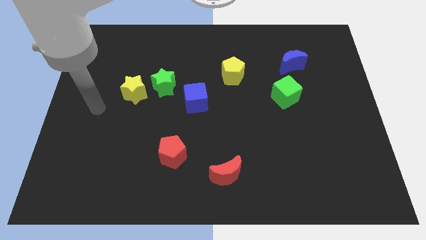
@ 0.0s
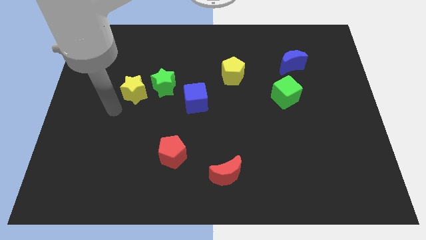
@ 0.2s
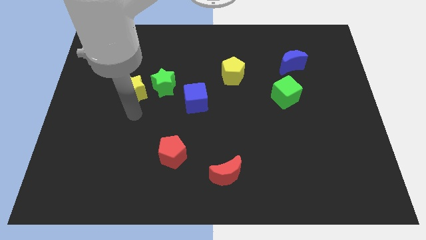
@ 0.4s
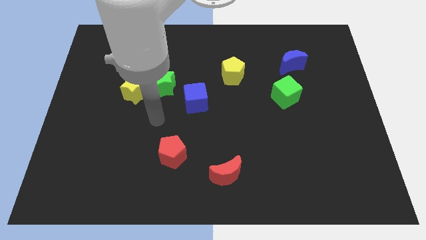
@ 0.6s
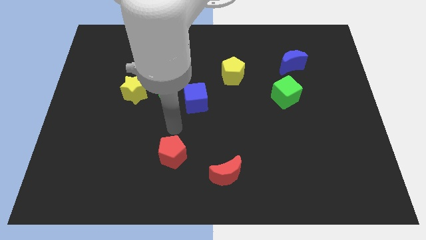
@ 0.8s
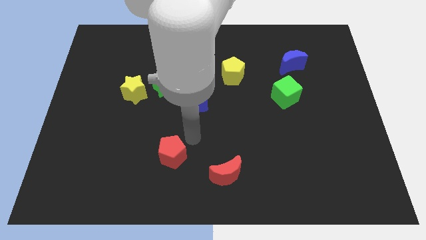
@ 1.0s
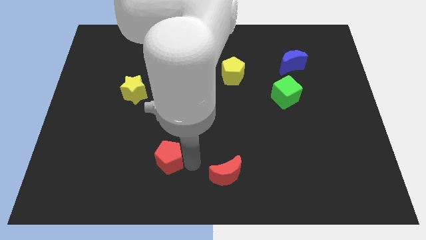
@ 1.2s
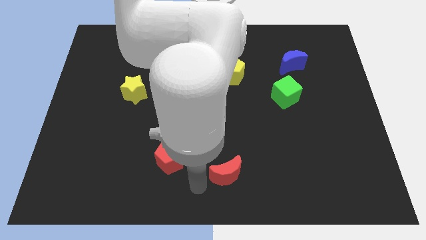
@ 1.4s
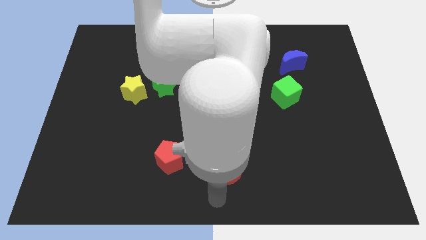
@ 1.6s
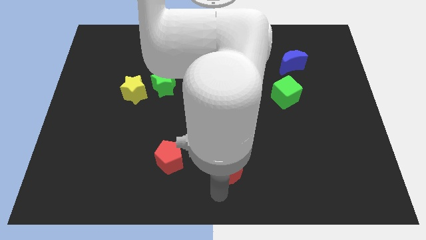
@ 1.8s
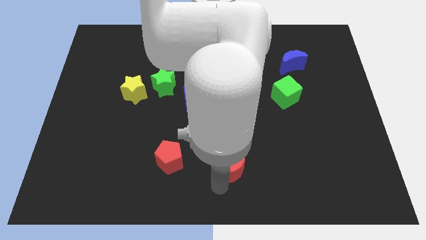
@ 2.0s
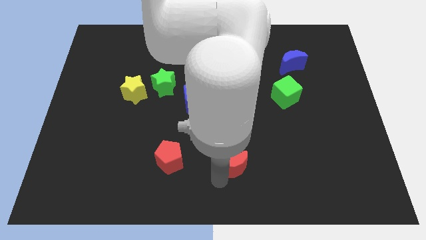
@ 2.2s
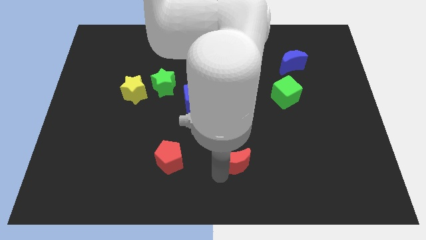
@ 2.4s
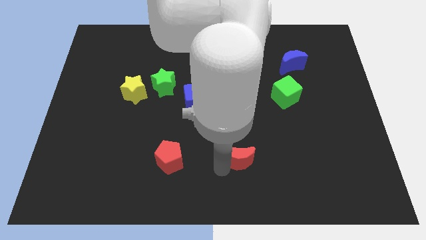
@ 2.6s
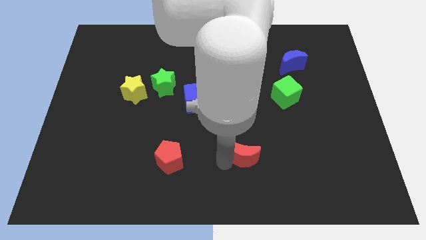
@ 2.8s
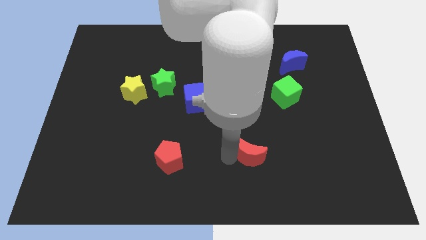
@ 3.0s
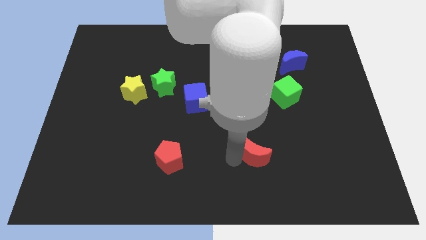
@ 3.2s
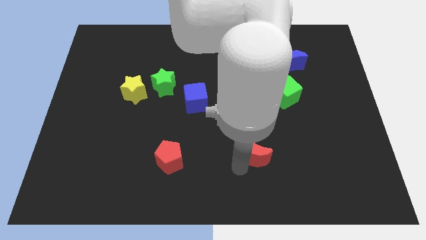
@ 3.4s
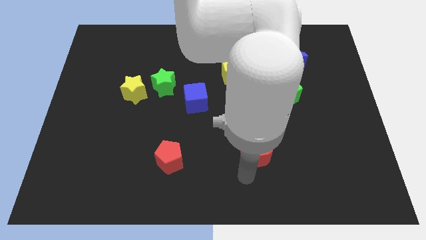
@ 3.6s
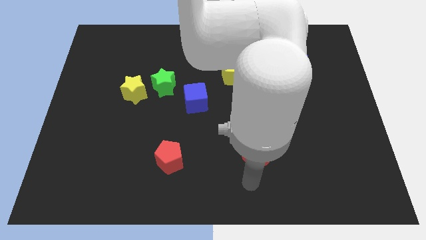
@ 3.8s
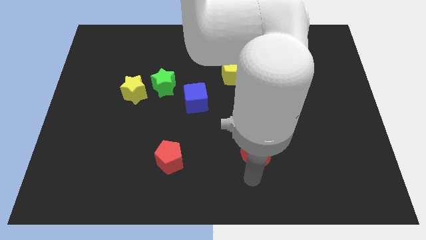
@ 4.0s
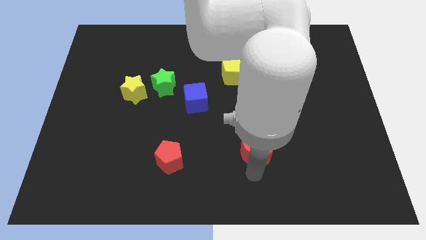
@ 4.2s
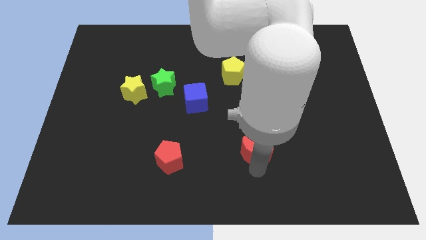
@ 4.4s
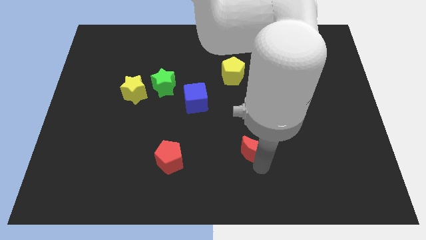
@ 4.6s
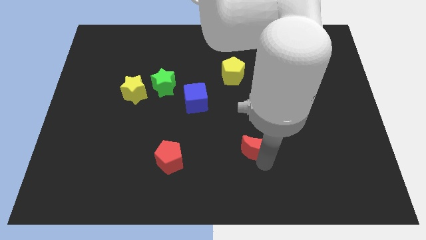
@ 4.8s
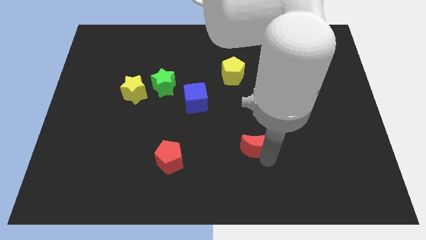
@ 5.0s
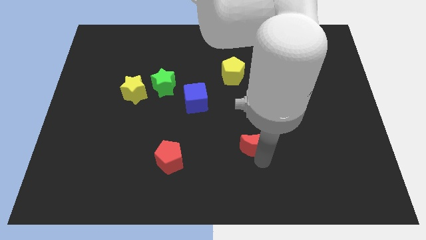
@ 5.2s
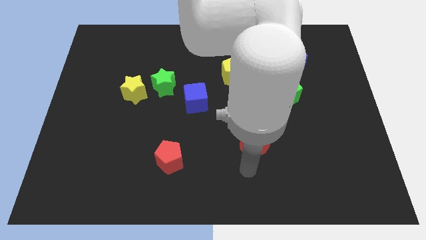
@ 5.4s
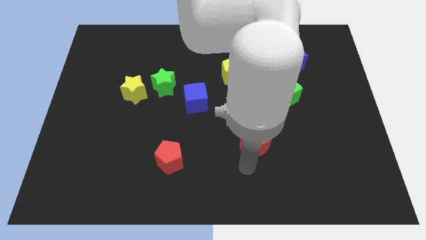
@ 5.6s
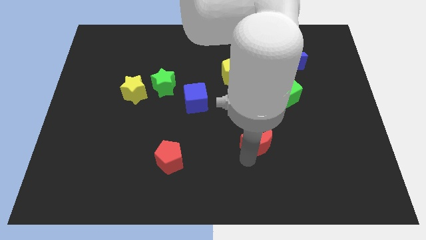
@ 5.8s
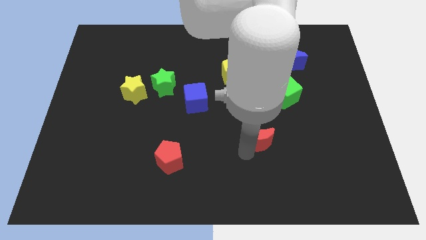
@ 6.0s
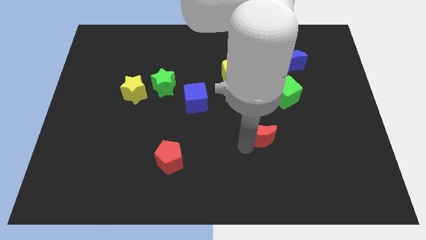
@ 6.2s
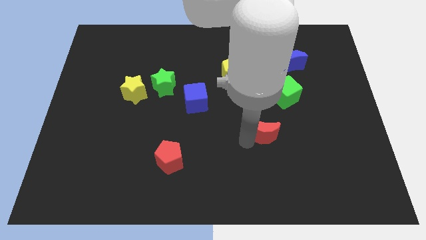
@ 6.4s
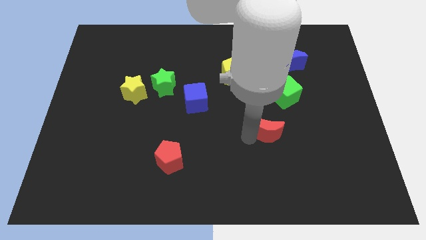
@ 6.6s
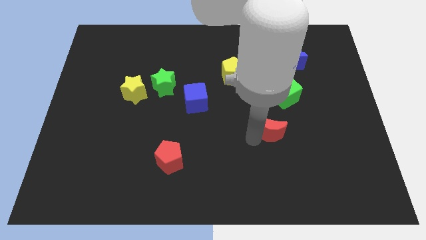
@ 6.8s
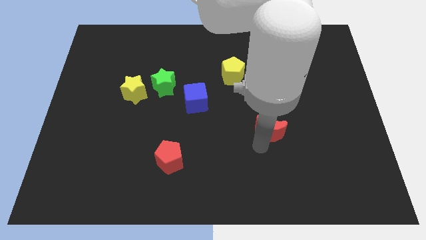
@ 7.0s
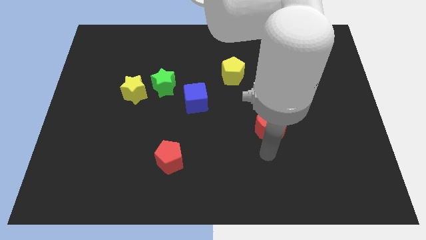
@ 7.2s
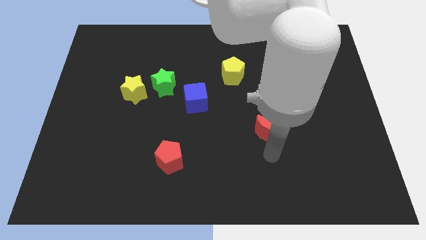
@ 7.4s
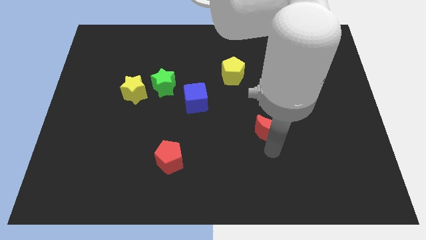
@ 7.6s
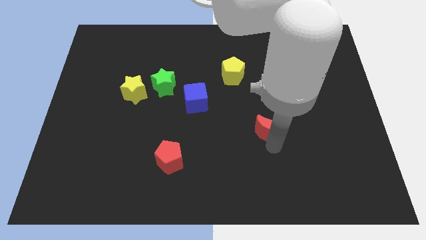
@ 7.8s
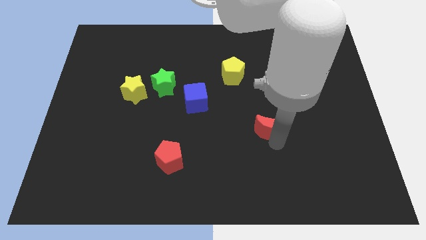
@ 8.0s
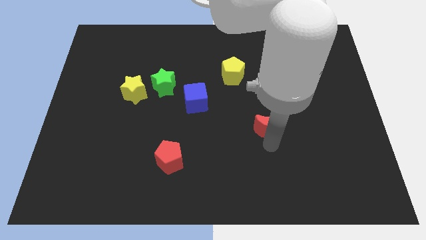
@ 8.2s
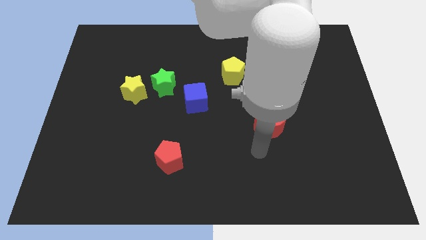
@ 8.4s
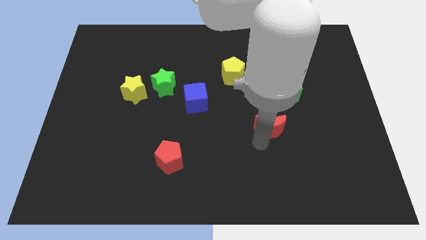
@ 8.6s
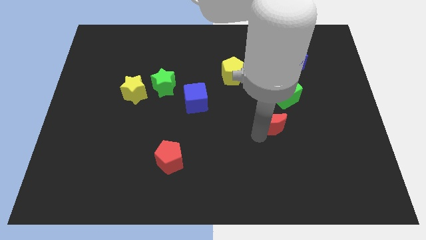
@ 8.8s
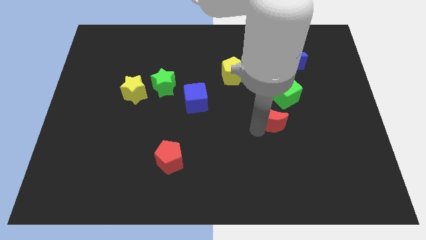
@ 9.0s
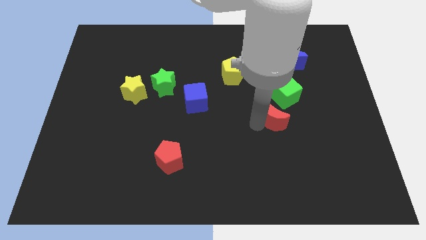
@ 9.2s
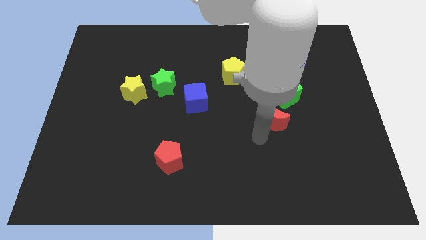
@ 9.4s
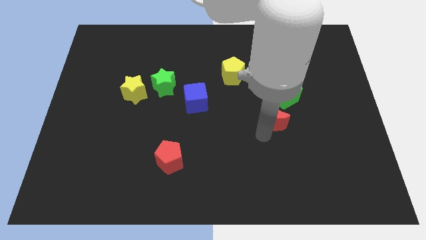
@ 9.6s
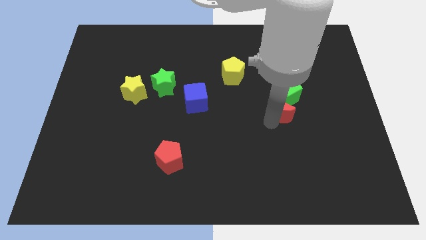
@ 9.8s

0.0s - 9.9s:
put the red moon close to the green cube

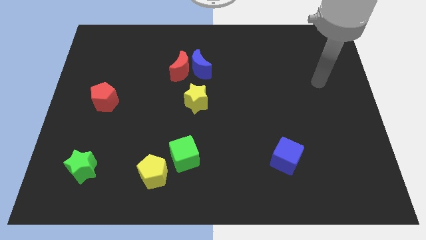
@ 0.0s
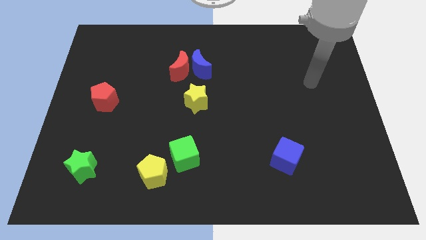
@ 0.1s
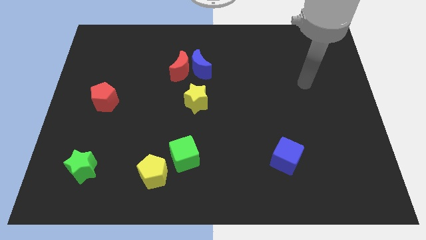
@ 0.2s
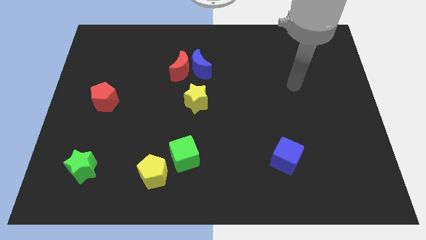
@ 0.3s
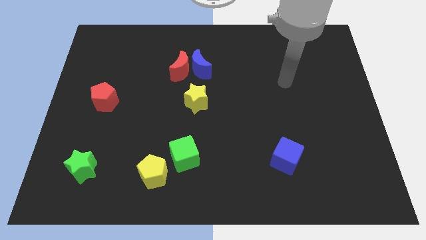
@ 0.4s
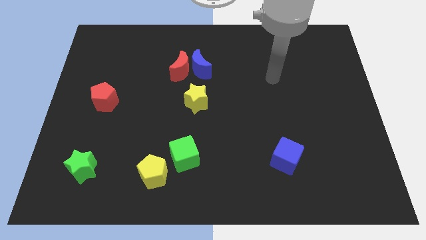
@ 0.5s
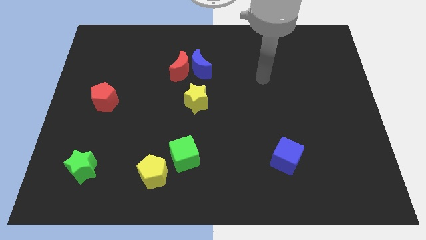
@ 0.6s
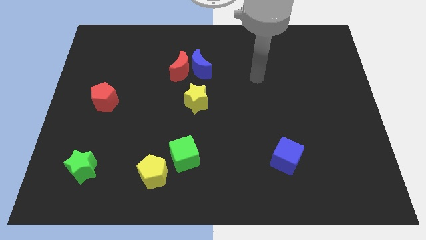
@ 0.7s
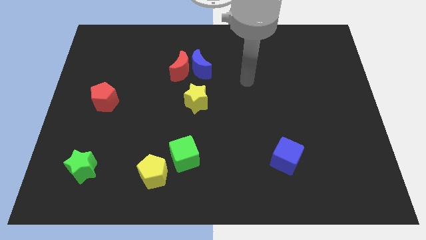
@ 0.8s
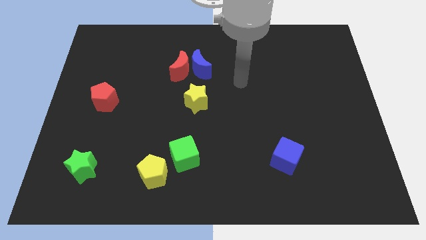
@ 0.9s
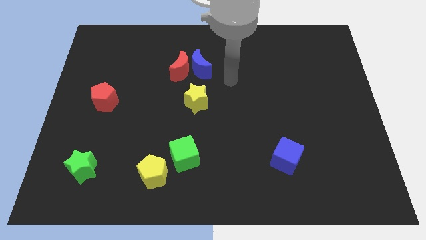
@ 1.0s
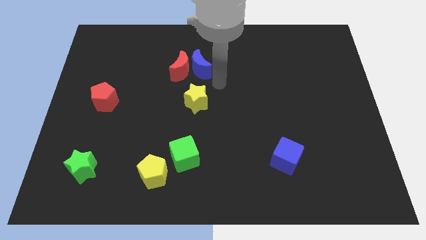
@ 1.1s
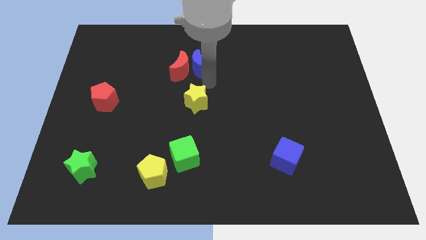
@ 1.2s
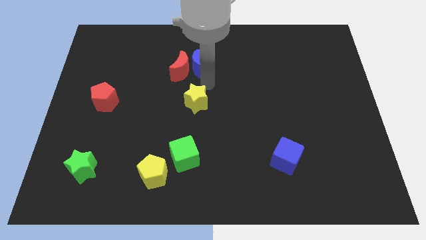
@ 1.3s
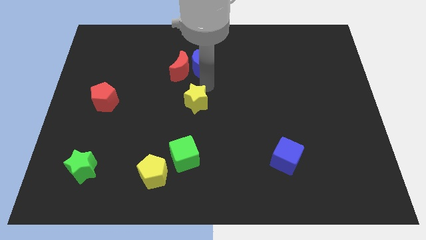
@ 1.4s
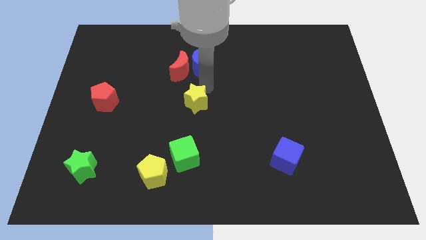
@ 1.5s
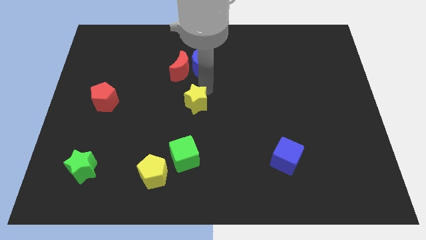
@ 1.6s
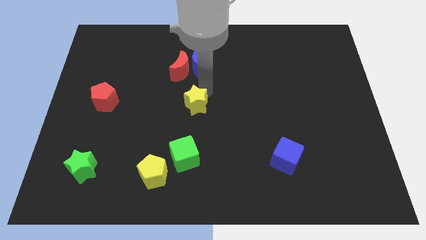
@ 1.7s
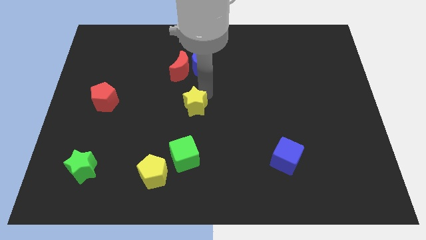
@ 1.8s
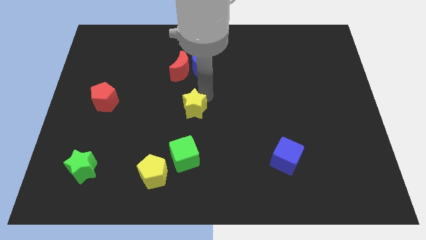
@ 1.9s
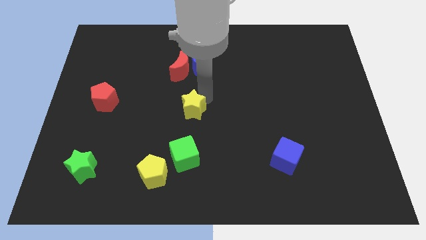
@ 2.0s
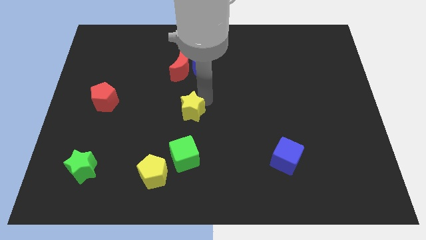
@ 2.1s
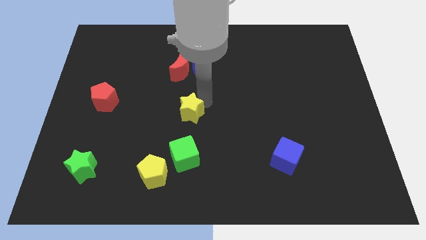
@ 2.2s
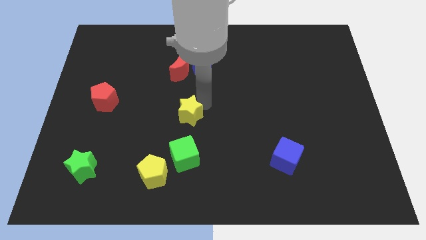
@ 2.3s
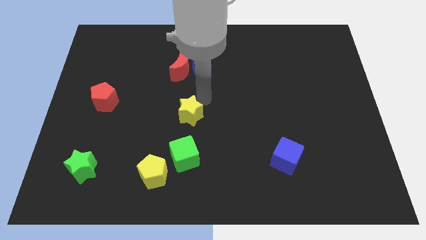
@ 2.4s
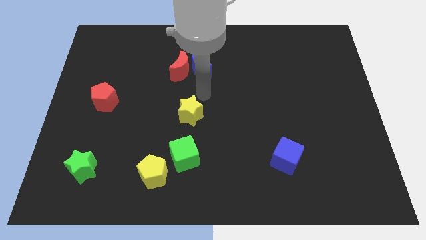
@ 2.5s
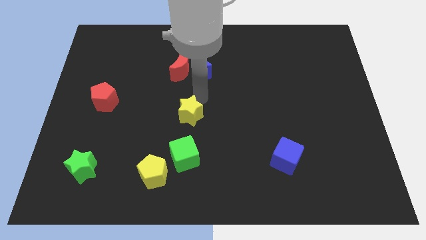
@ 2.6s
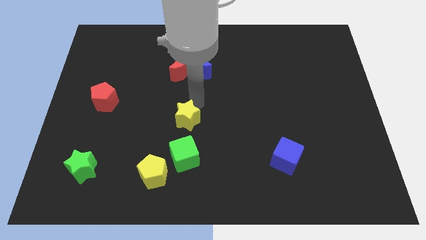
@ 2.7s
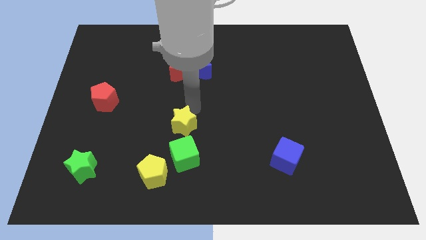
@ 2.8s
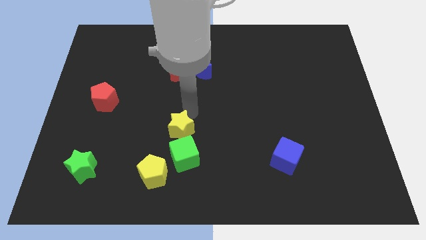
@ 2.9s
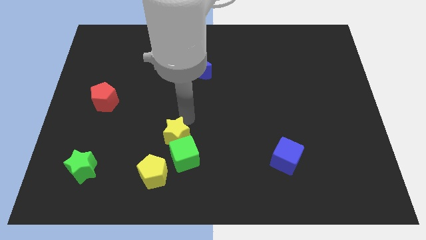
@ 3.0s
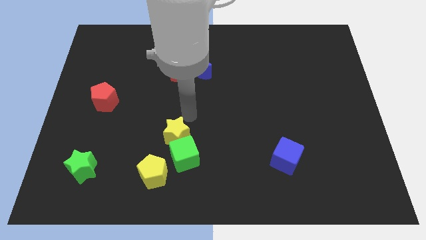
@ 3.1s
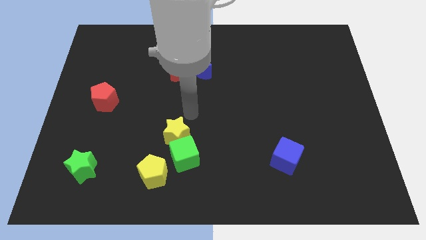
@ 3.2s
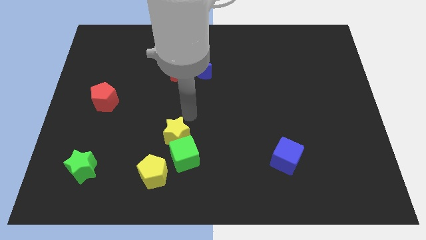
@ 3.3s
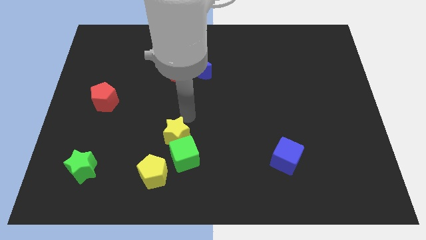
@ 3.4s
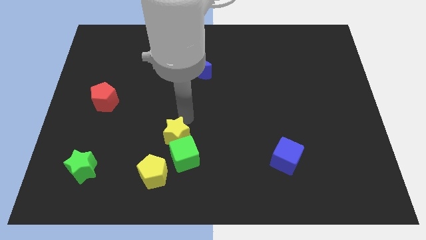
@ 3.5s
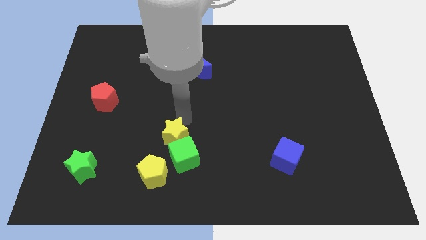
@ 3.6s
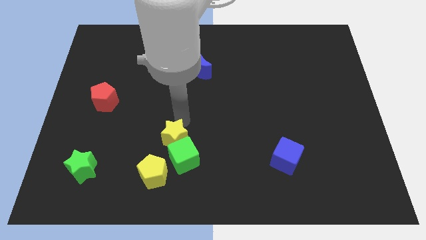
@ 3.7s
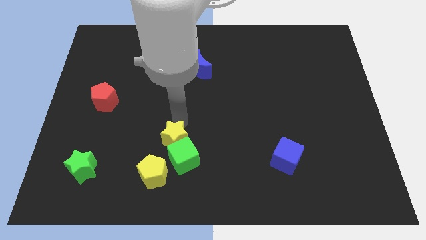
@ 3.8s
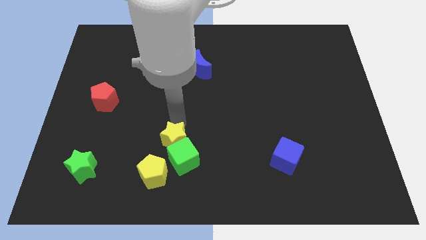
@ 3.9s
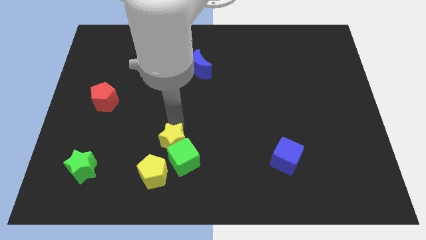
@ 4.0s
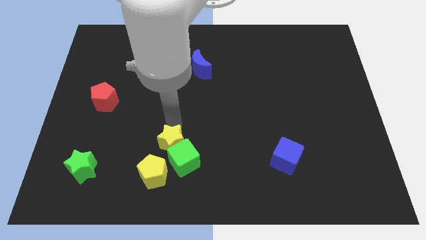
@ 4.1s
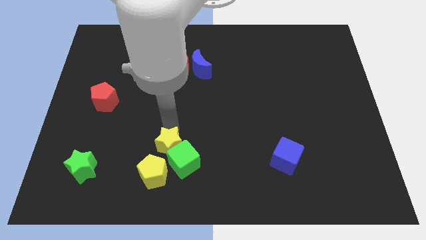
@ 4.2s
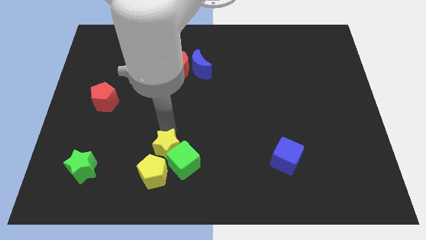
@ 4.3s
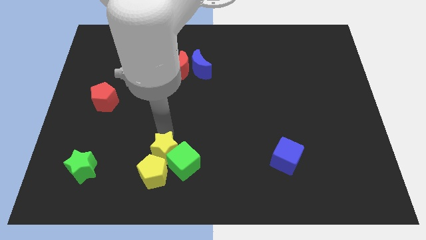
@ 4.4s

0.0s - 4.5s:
push the yellow star to the yellow pentagon
